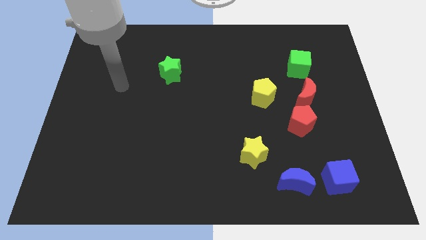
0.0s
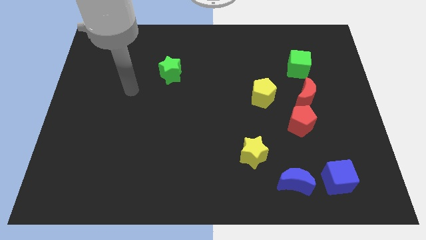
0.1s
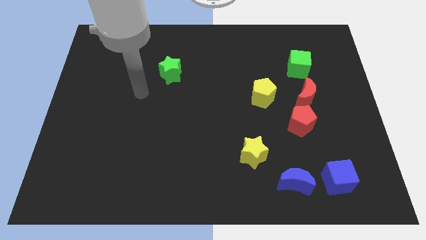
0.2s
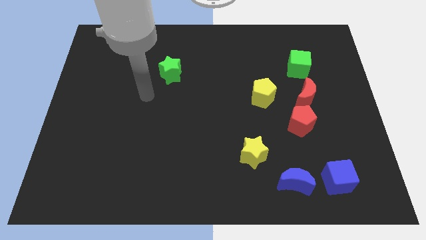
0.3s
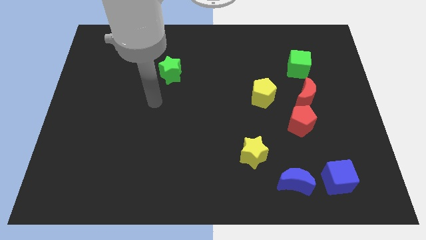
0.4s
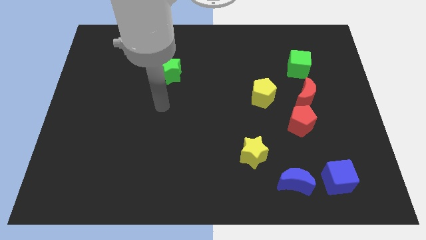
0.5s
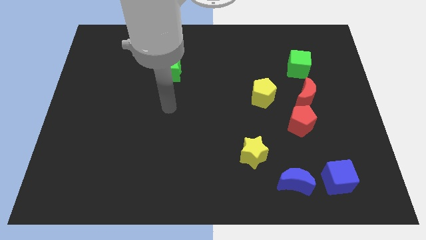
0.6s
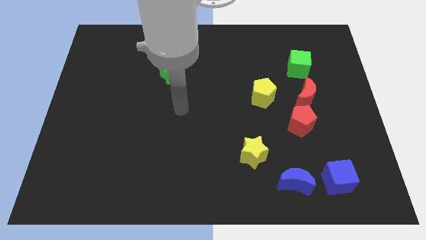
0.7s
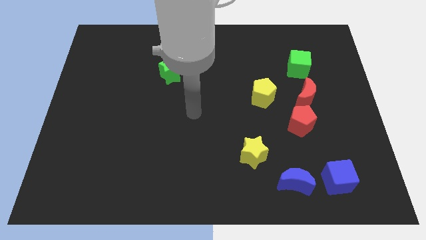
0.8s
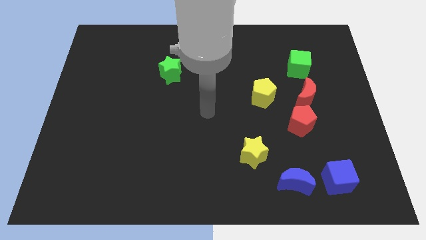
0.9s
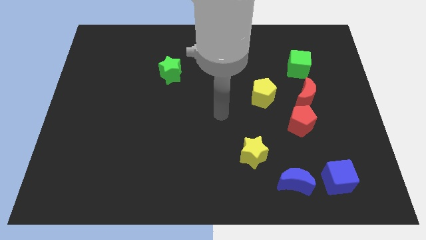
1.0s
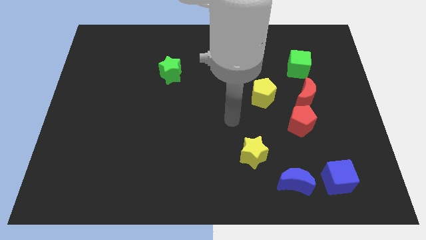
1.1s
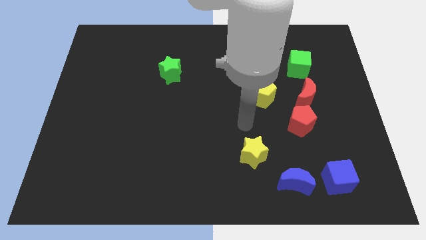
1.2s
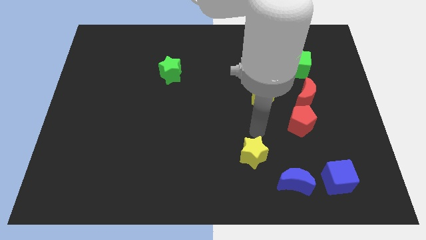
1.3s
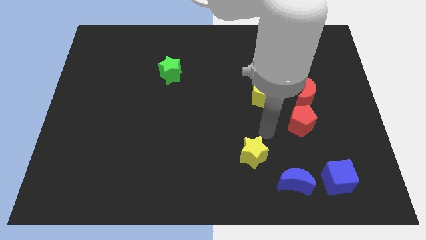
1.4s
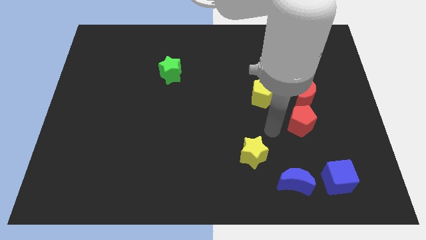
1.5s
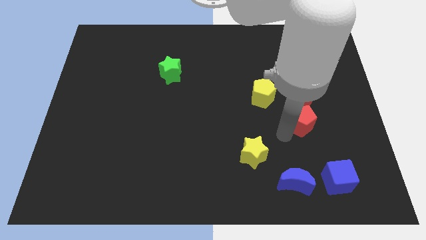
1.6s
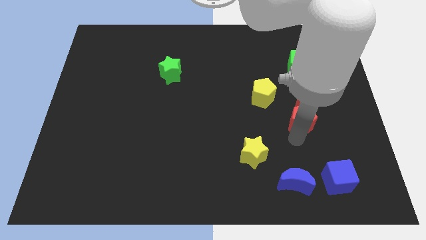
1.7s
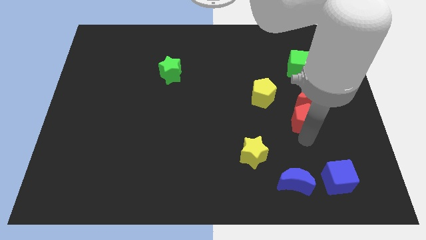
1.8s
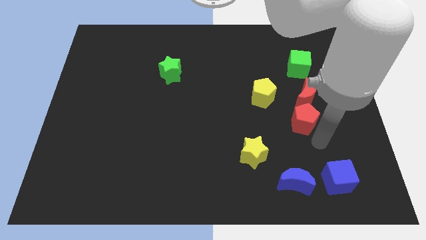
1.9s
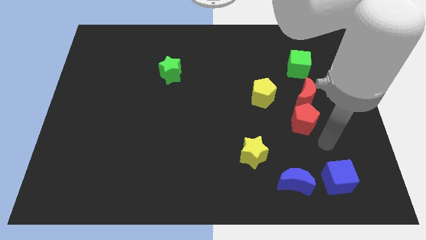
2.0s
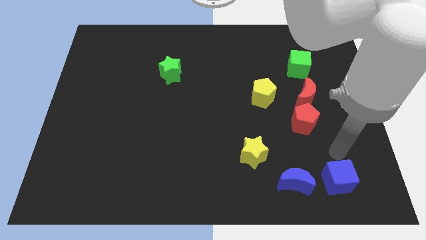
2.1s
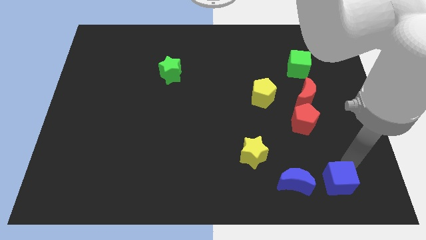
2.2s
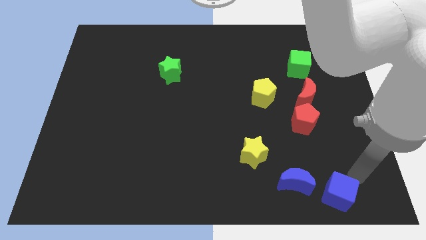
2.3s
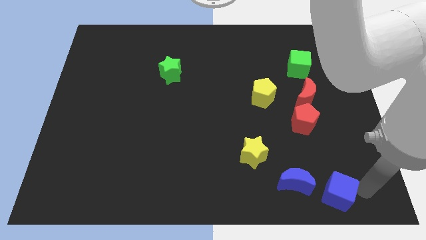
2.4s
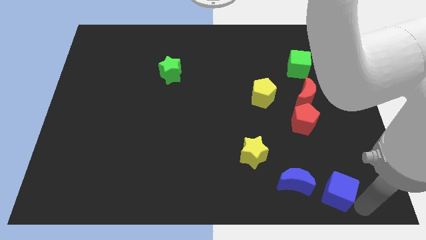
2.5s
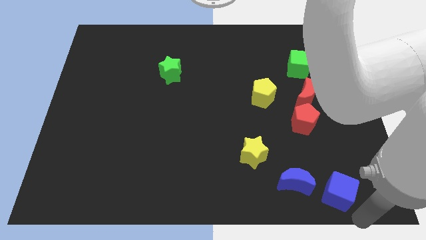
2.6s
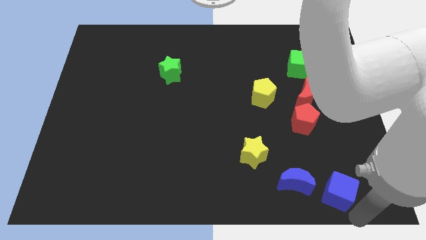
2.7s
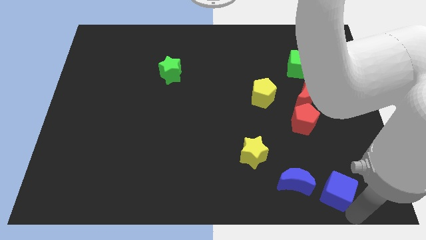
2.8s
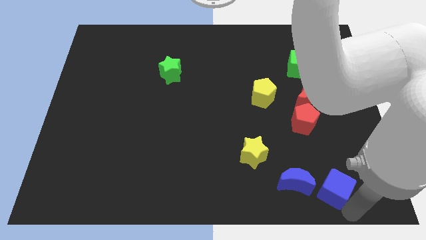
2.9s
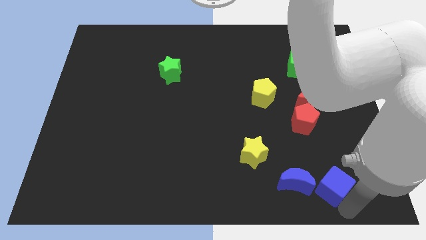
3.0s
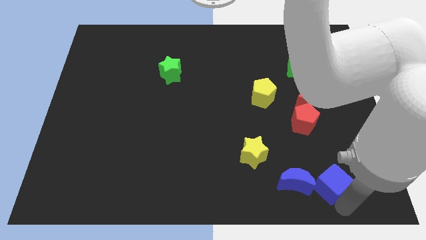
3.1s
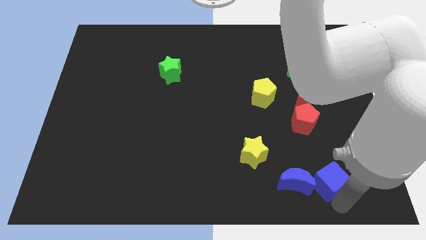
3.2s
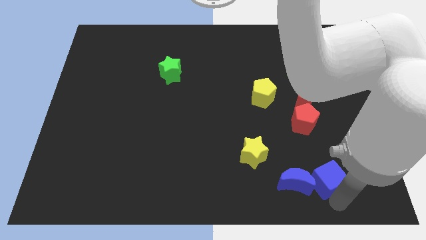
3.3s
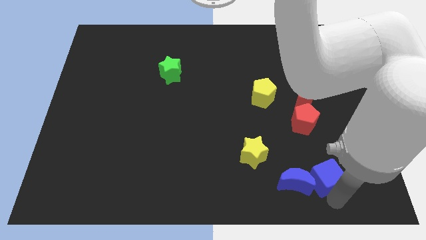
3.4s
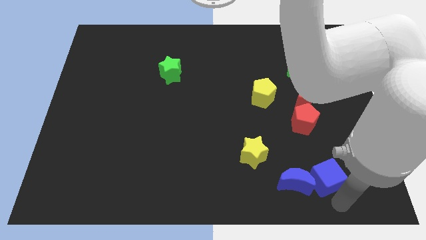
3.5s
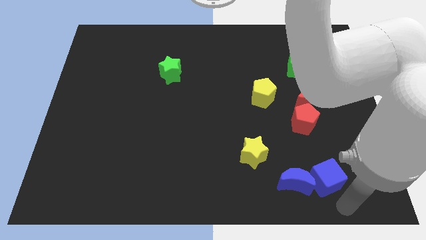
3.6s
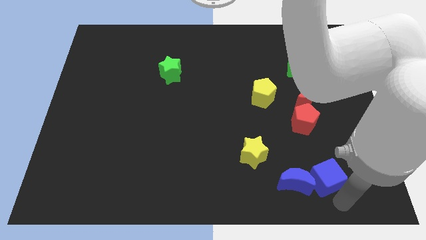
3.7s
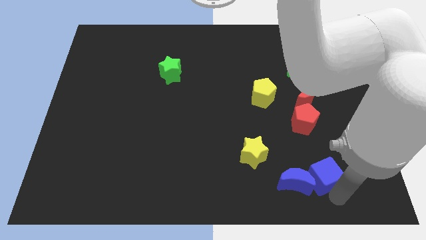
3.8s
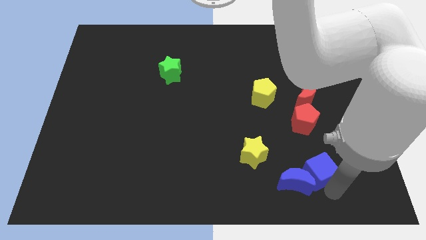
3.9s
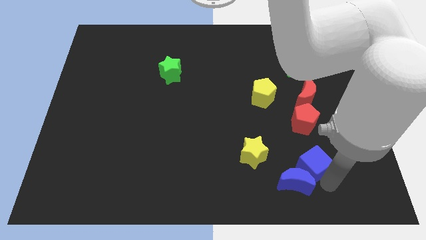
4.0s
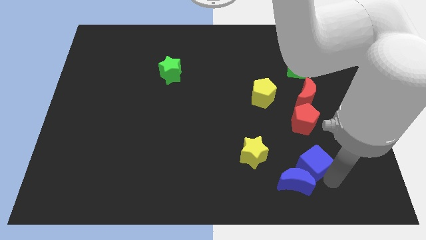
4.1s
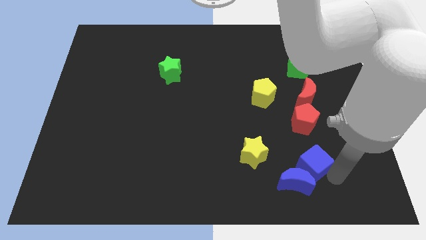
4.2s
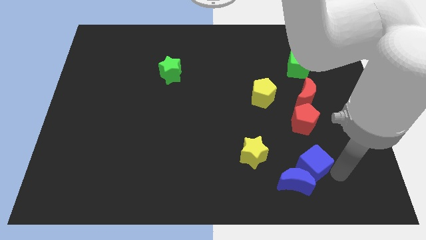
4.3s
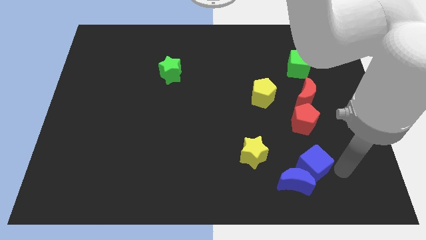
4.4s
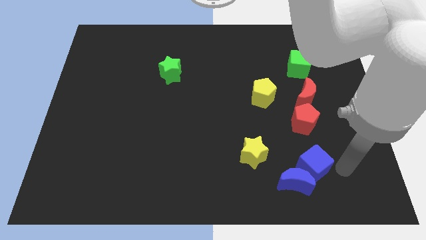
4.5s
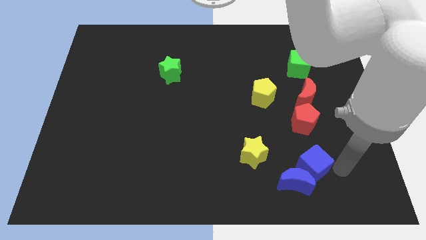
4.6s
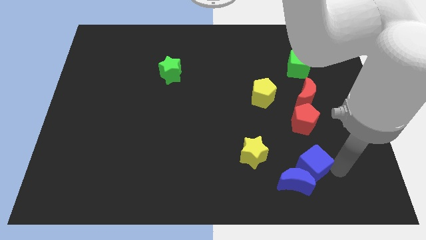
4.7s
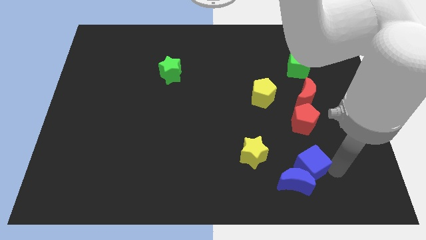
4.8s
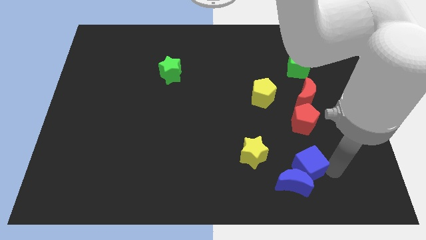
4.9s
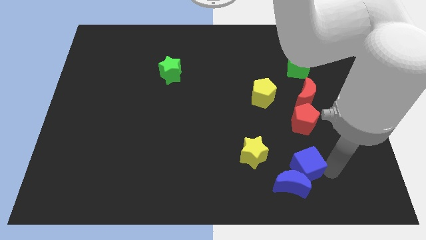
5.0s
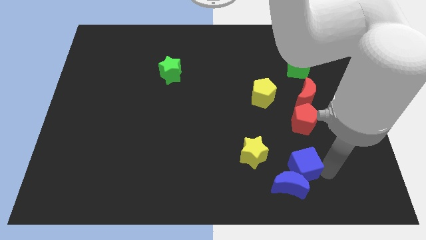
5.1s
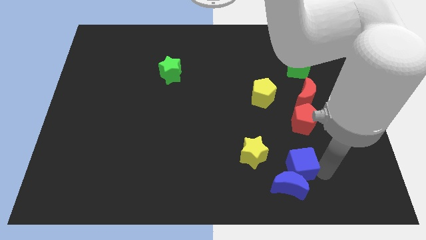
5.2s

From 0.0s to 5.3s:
move the blue cube left a bit

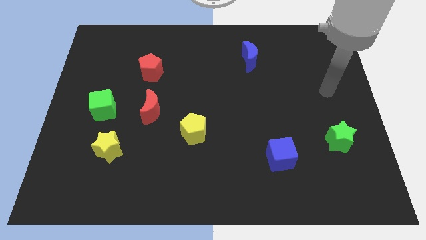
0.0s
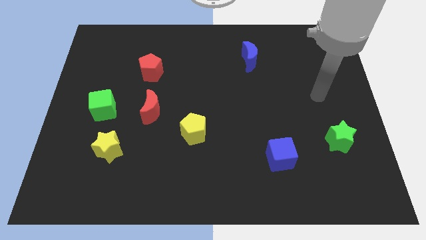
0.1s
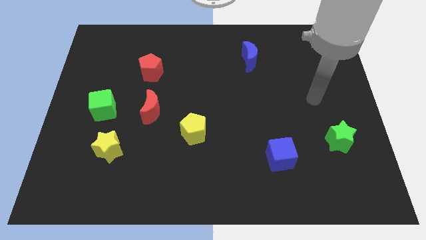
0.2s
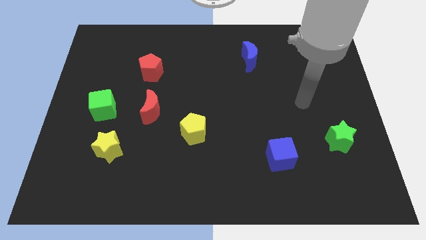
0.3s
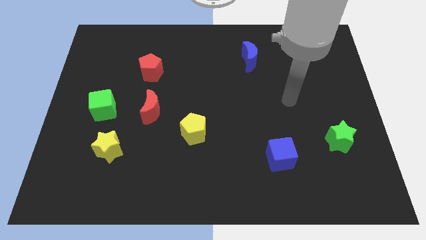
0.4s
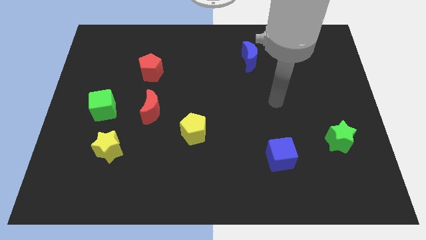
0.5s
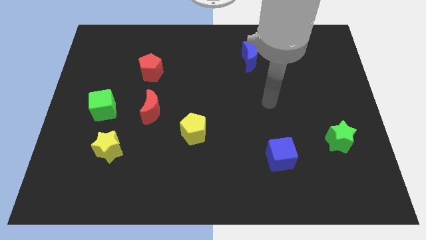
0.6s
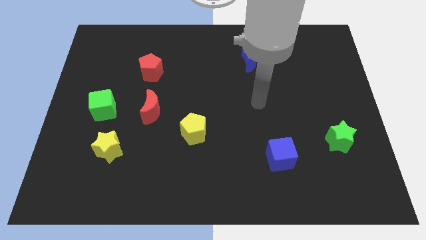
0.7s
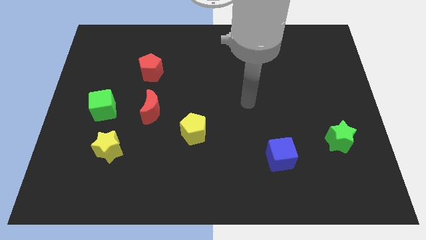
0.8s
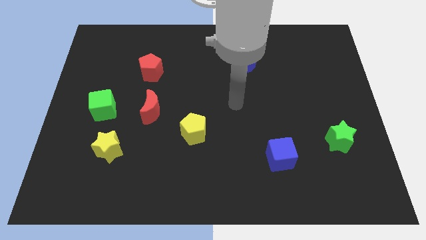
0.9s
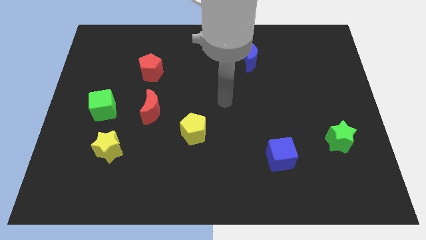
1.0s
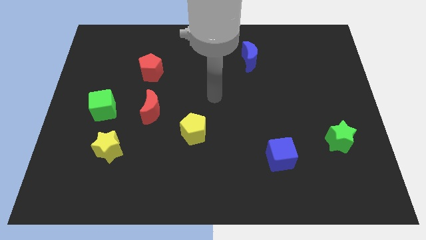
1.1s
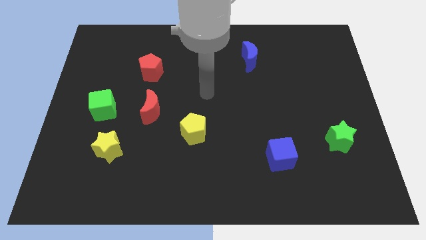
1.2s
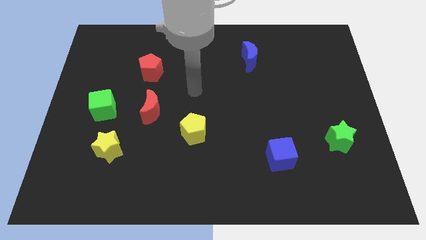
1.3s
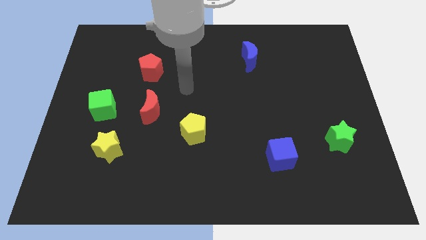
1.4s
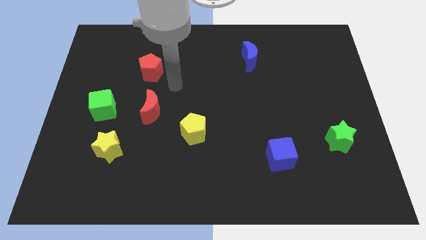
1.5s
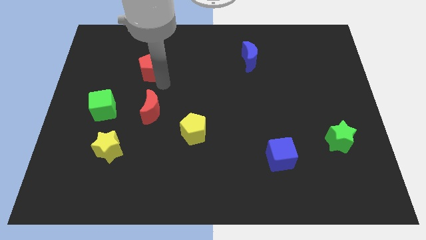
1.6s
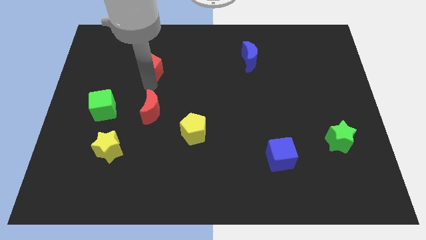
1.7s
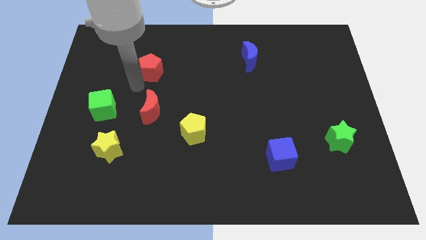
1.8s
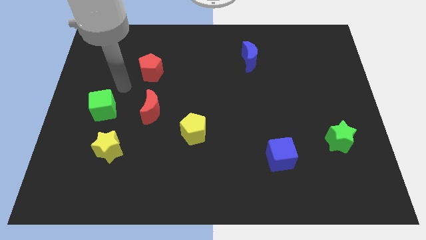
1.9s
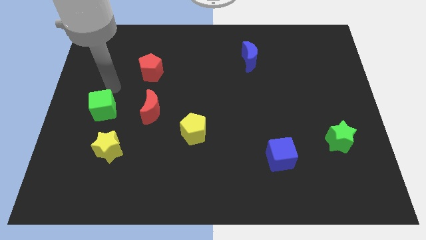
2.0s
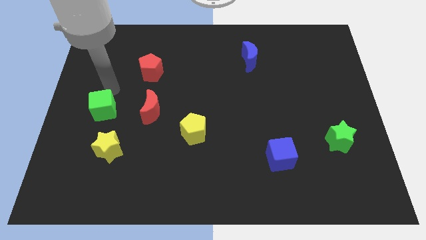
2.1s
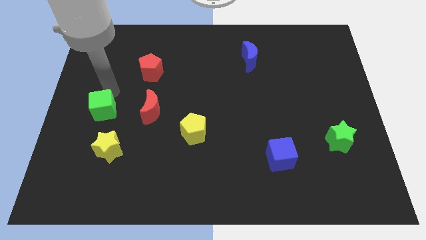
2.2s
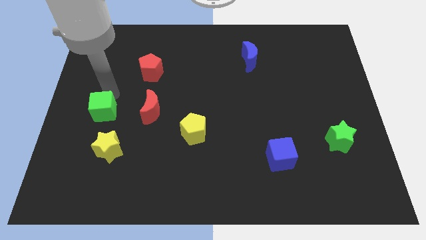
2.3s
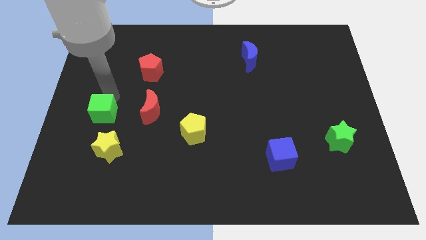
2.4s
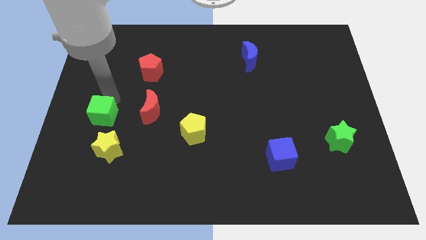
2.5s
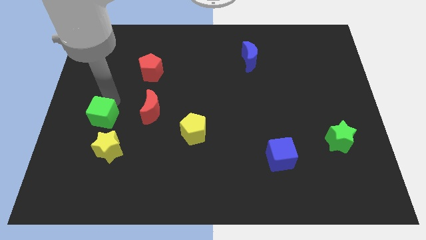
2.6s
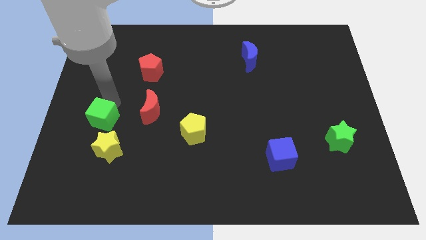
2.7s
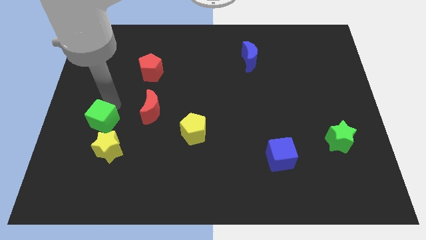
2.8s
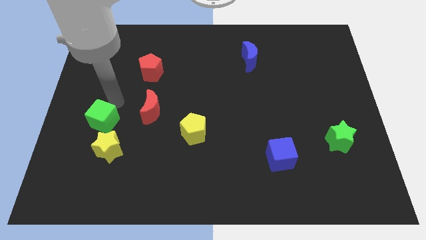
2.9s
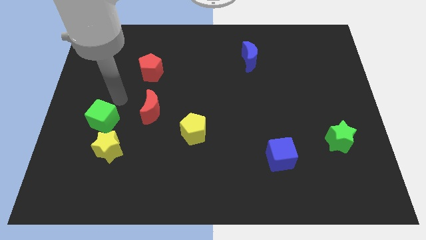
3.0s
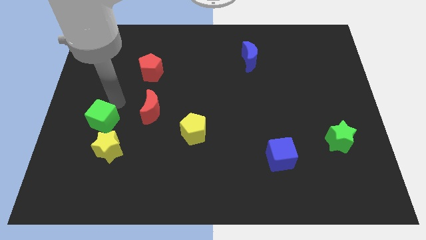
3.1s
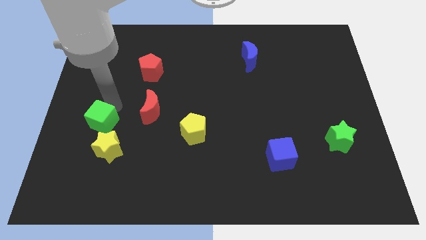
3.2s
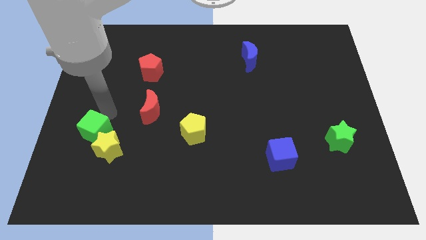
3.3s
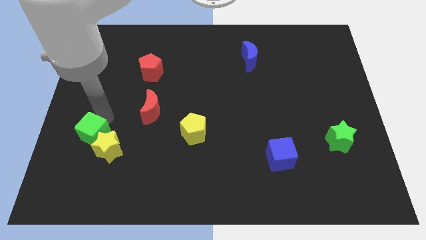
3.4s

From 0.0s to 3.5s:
slide the green cube down a bit
